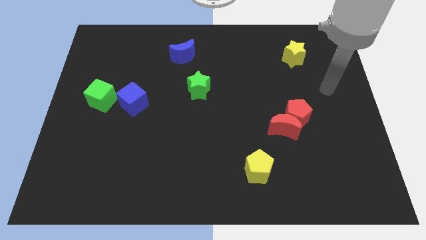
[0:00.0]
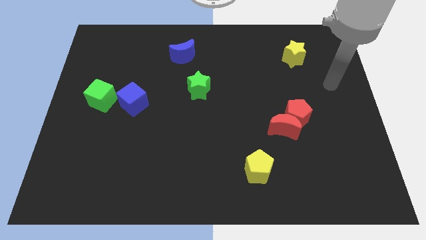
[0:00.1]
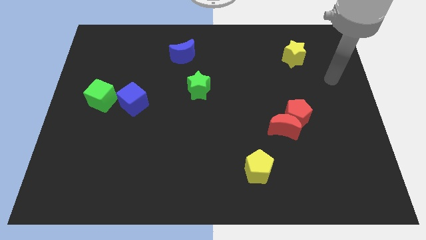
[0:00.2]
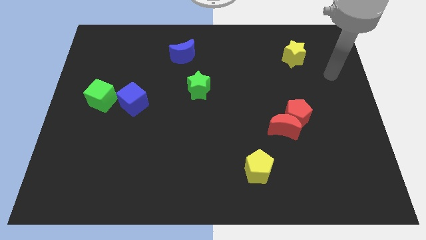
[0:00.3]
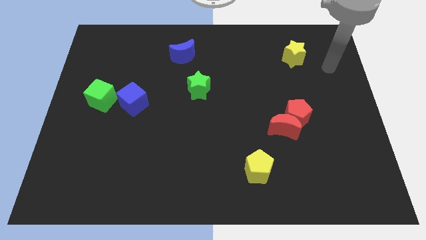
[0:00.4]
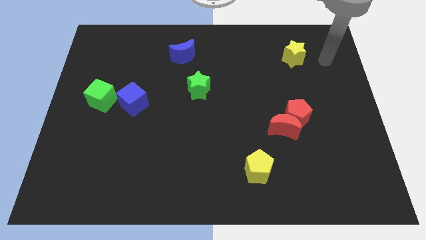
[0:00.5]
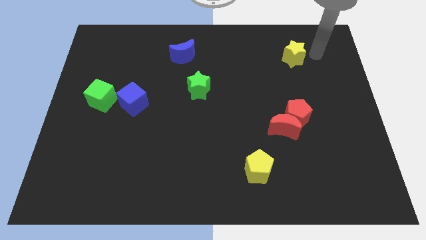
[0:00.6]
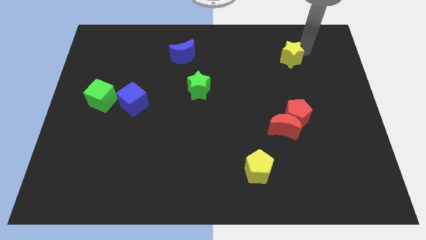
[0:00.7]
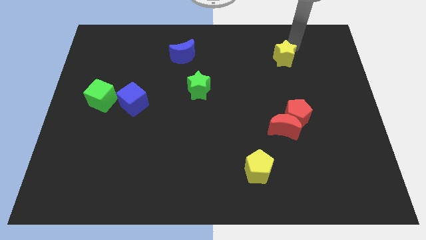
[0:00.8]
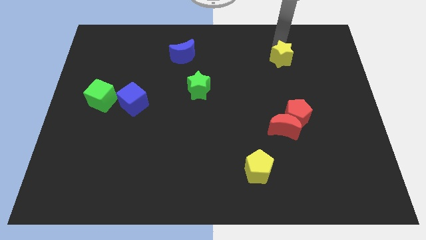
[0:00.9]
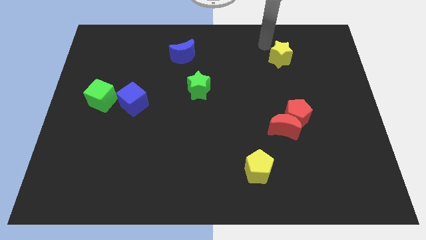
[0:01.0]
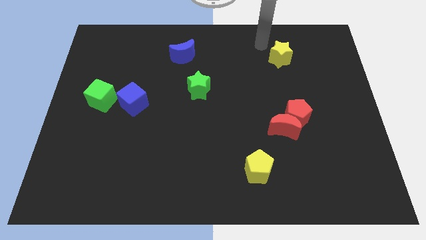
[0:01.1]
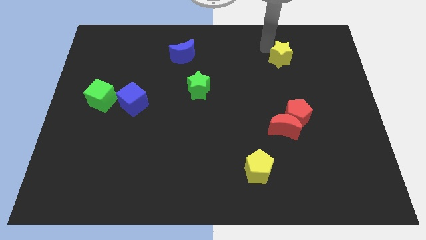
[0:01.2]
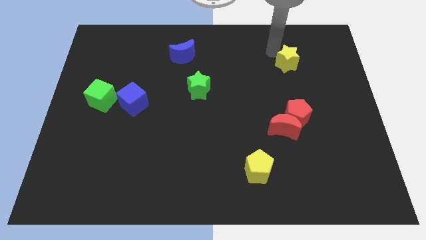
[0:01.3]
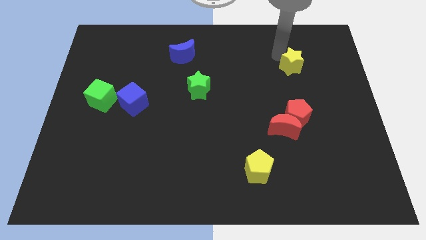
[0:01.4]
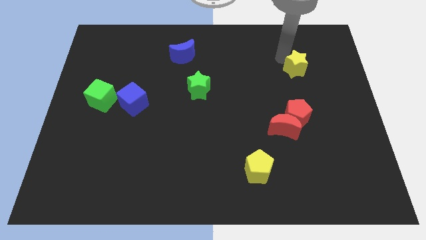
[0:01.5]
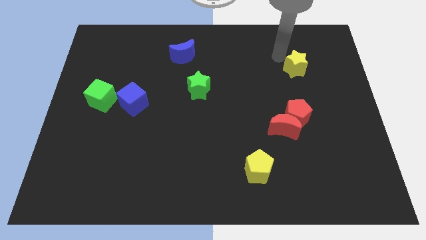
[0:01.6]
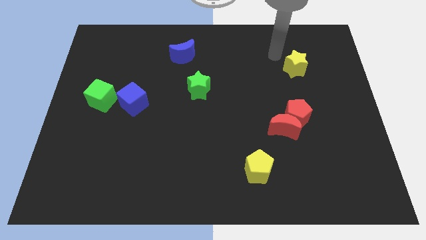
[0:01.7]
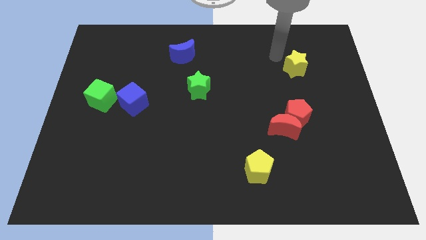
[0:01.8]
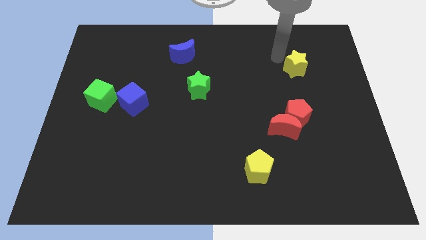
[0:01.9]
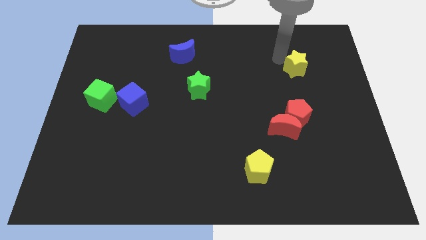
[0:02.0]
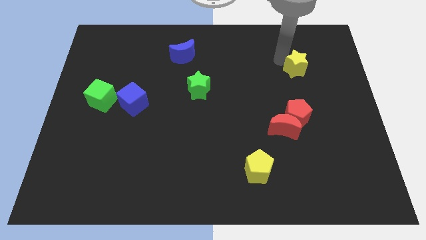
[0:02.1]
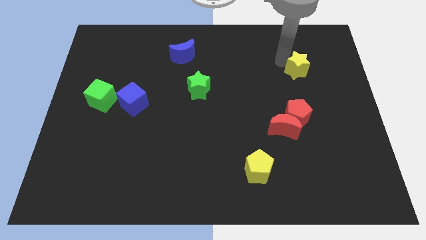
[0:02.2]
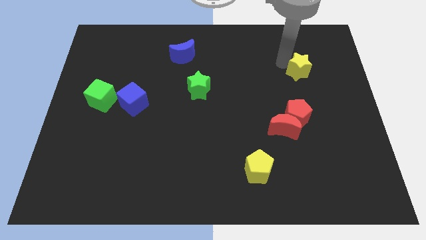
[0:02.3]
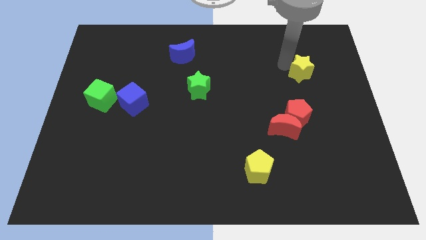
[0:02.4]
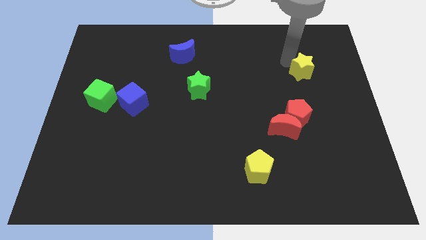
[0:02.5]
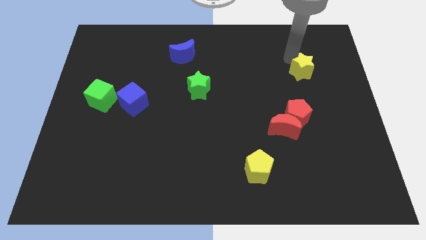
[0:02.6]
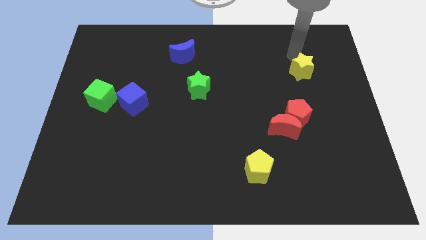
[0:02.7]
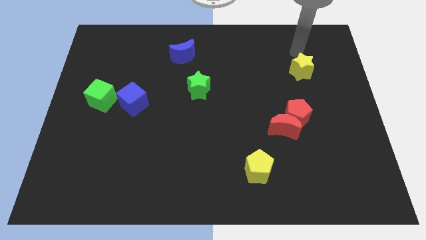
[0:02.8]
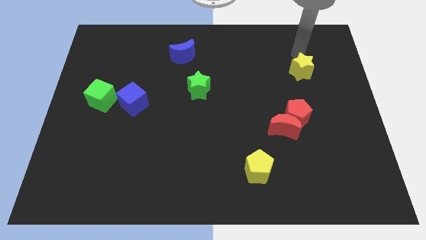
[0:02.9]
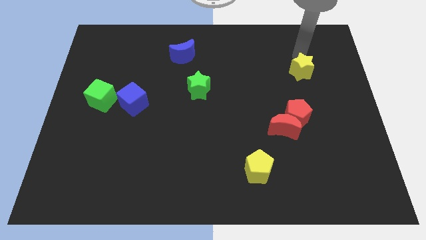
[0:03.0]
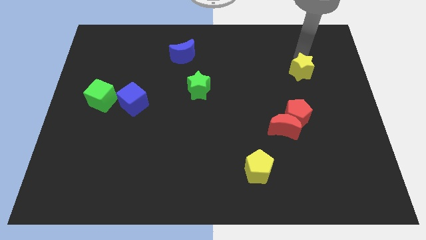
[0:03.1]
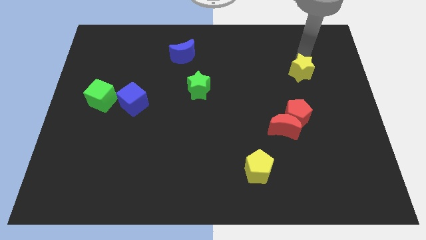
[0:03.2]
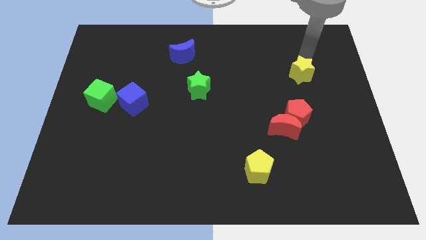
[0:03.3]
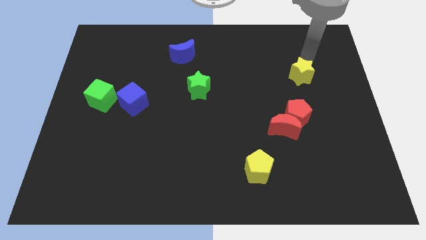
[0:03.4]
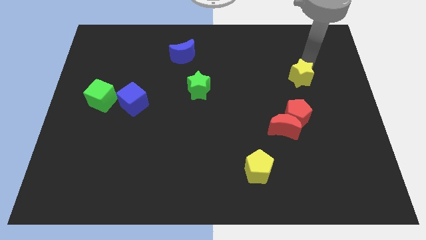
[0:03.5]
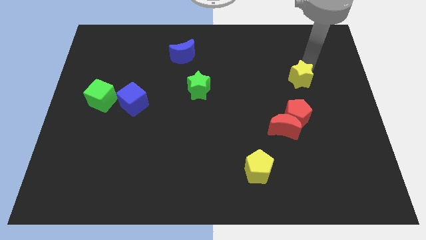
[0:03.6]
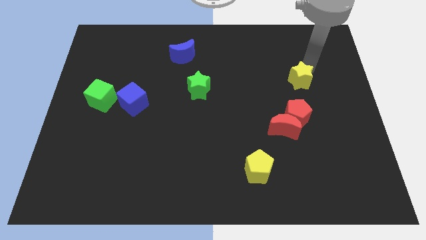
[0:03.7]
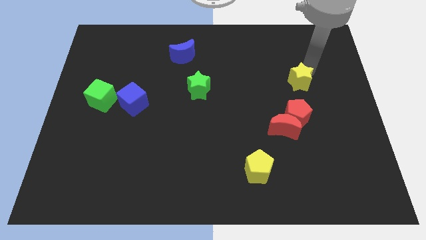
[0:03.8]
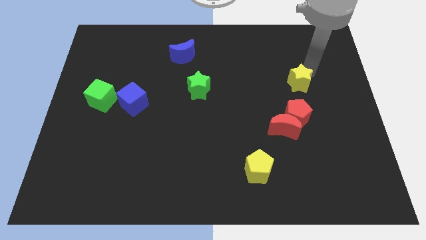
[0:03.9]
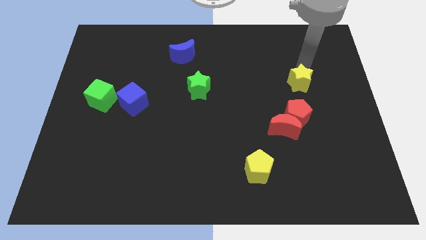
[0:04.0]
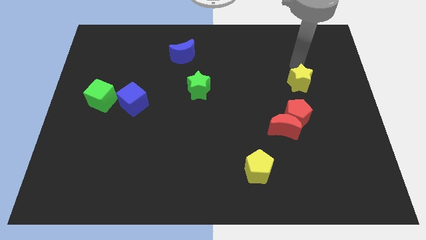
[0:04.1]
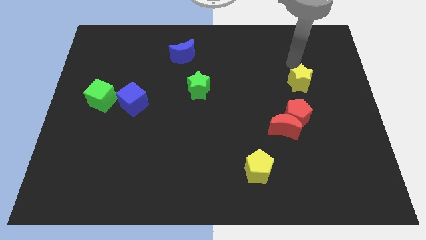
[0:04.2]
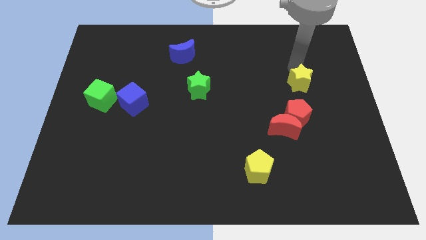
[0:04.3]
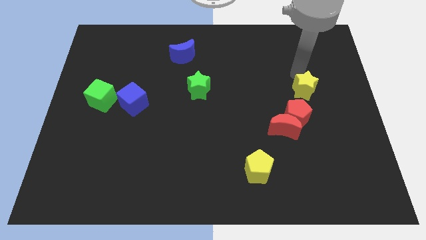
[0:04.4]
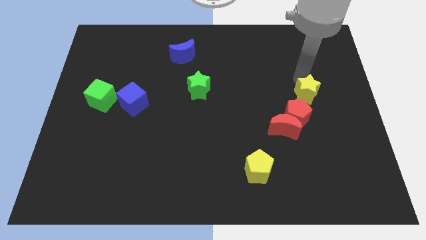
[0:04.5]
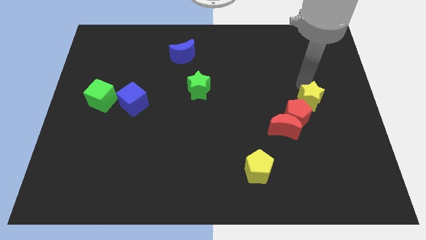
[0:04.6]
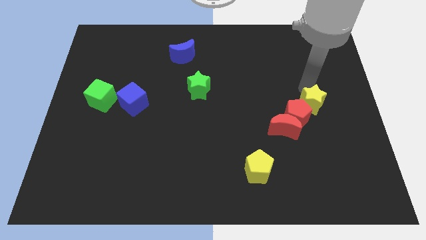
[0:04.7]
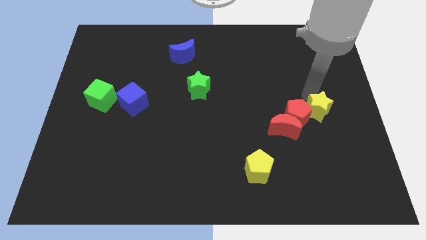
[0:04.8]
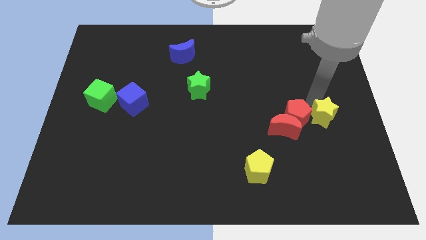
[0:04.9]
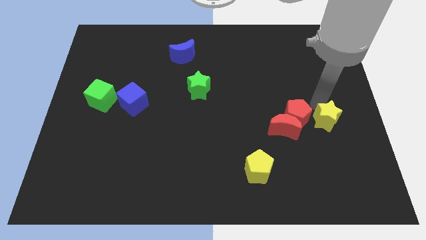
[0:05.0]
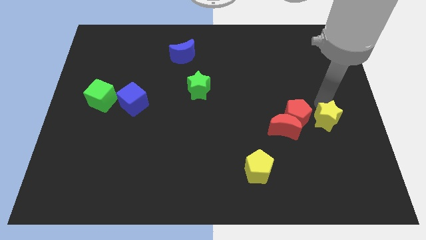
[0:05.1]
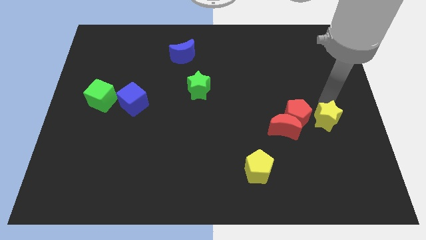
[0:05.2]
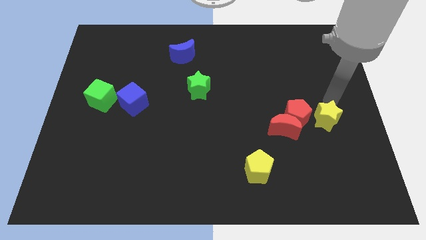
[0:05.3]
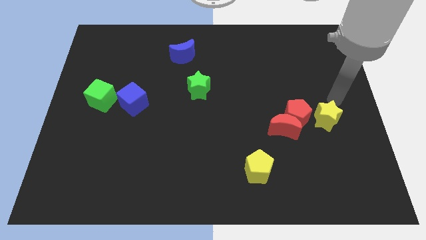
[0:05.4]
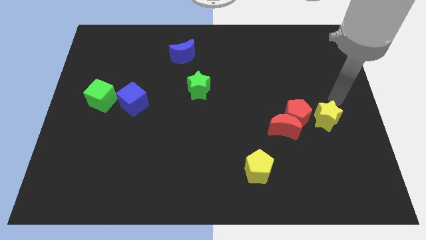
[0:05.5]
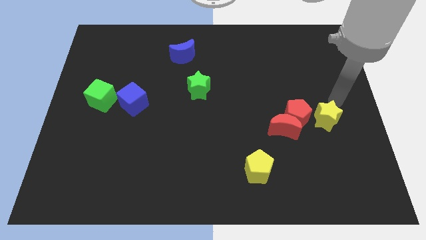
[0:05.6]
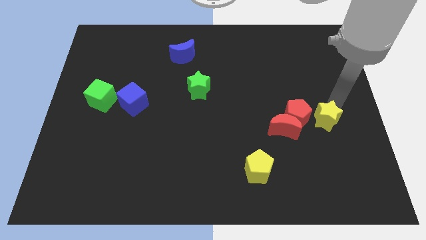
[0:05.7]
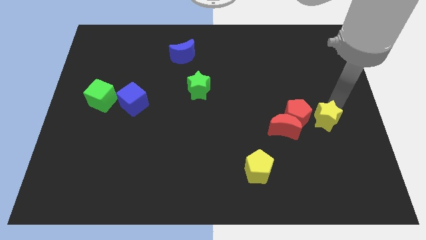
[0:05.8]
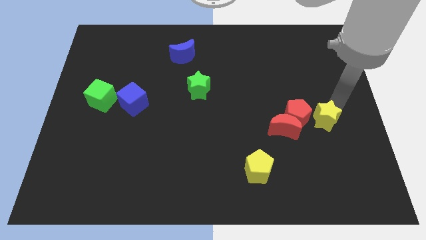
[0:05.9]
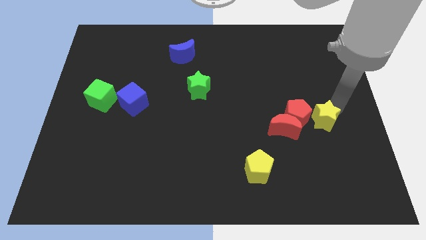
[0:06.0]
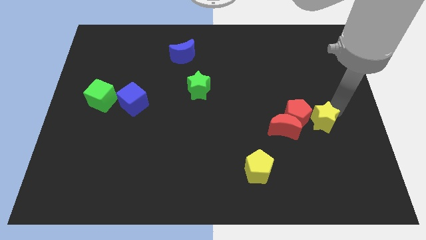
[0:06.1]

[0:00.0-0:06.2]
slide the yellow star downwards

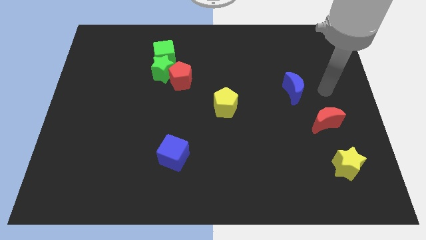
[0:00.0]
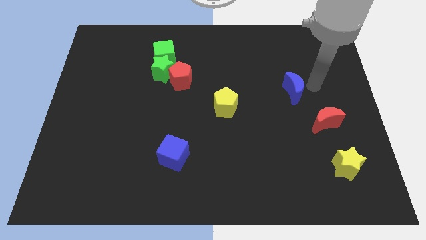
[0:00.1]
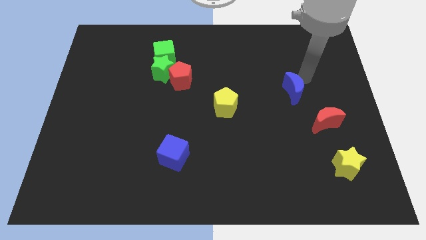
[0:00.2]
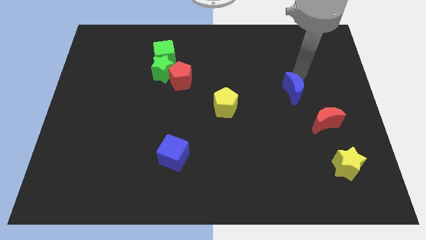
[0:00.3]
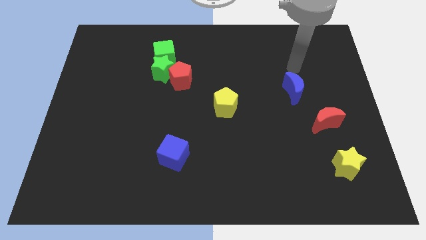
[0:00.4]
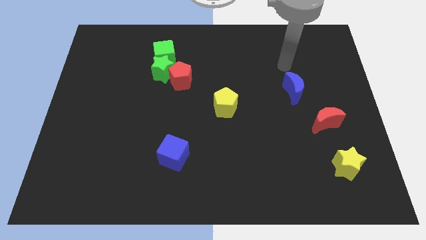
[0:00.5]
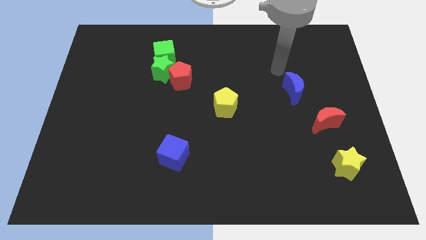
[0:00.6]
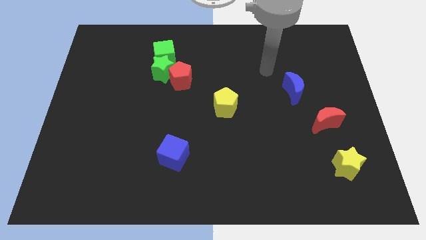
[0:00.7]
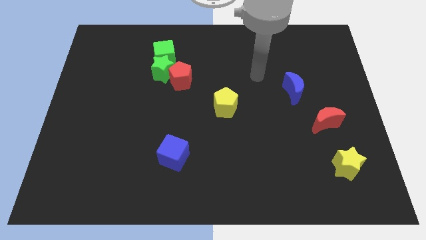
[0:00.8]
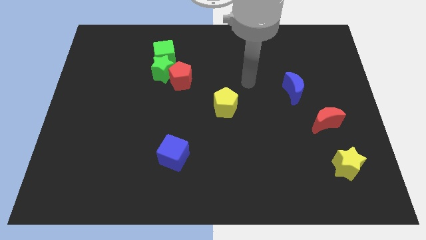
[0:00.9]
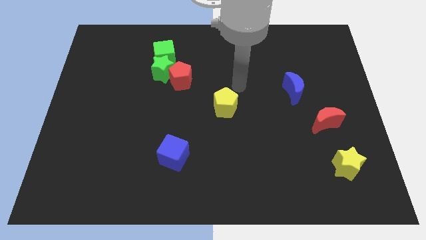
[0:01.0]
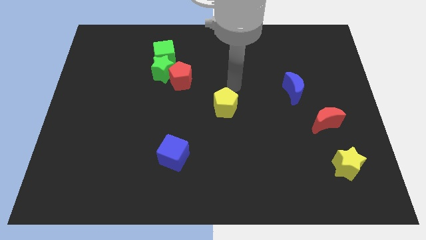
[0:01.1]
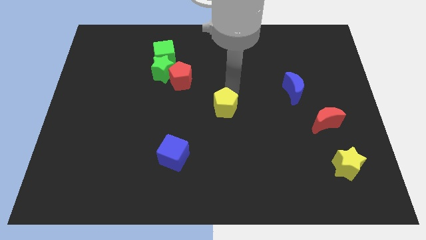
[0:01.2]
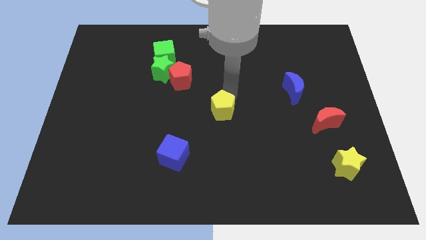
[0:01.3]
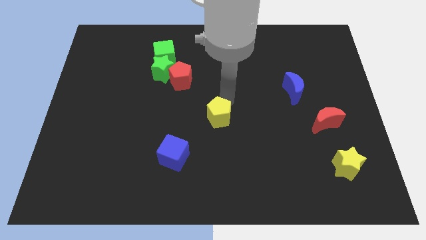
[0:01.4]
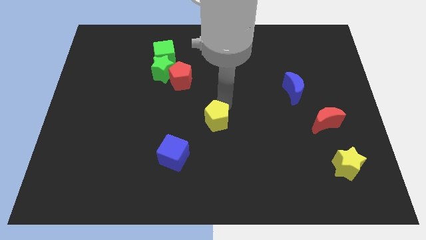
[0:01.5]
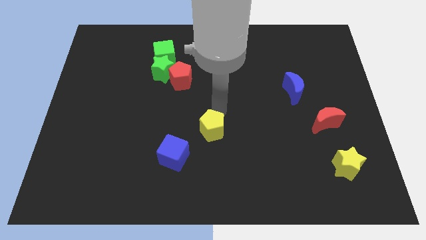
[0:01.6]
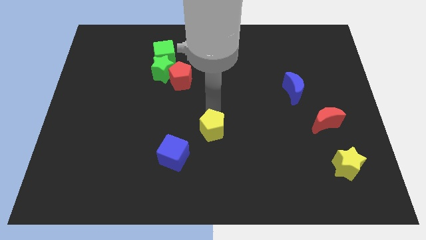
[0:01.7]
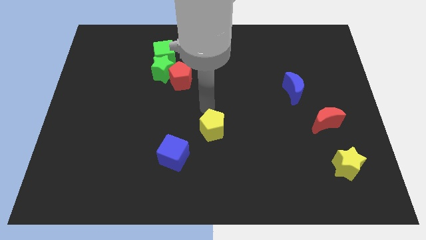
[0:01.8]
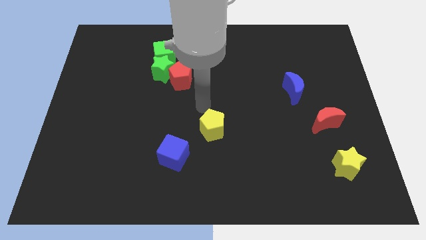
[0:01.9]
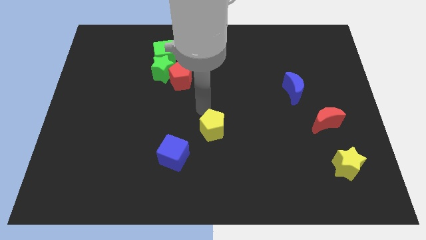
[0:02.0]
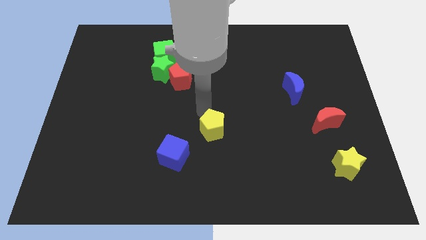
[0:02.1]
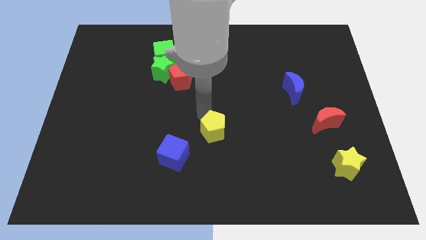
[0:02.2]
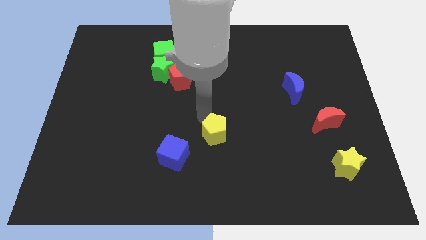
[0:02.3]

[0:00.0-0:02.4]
slide the yellow pentagon down a little
